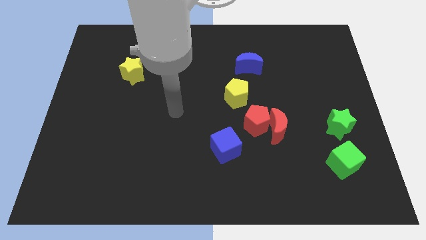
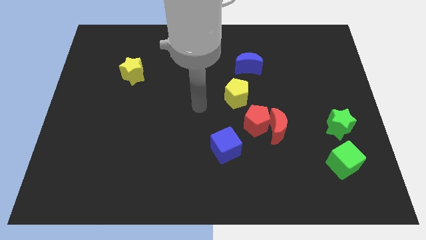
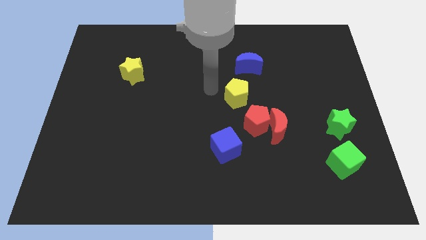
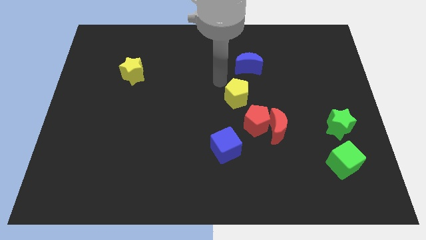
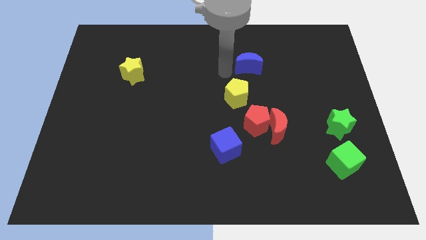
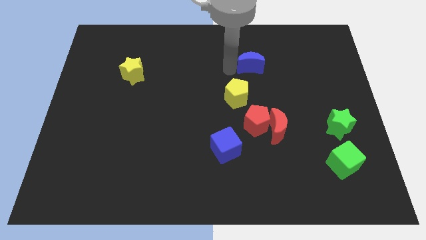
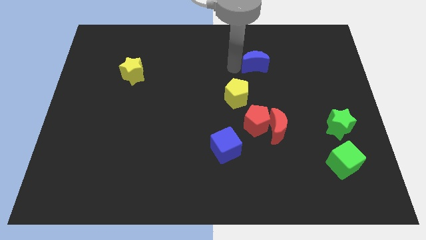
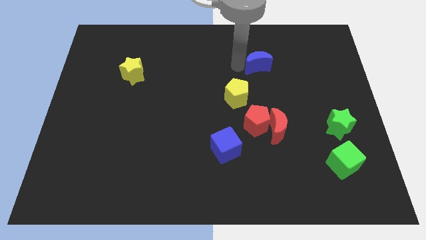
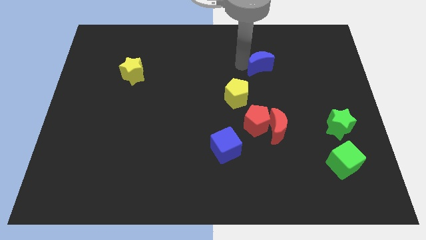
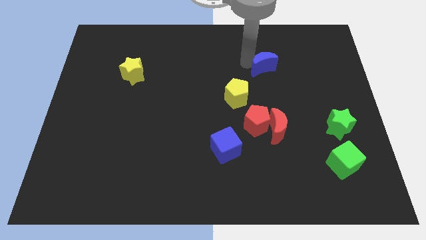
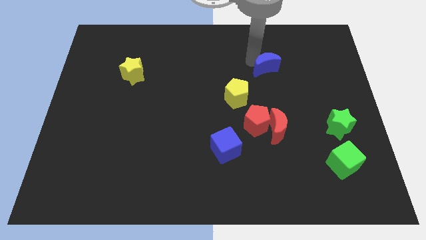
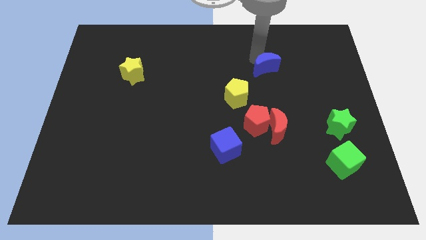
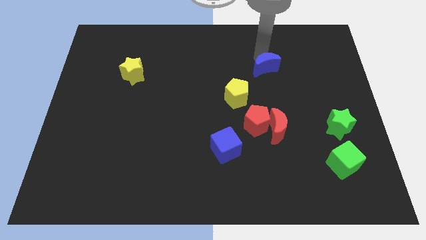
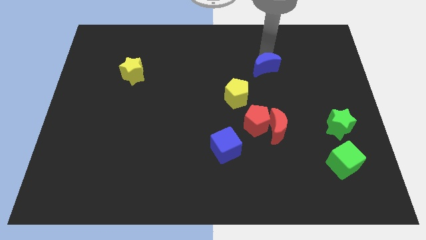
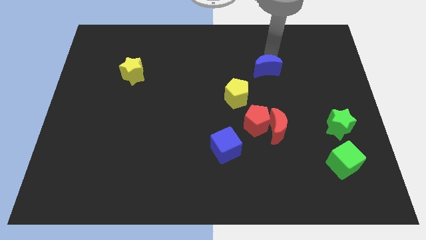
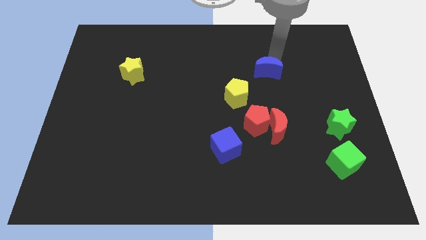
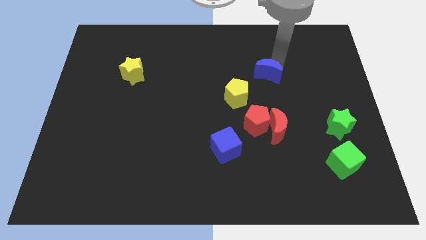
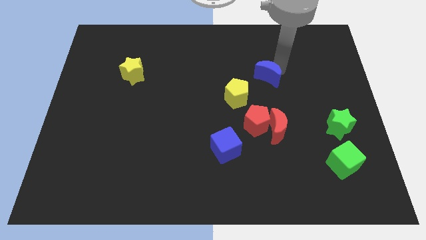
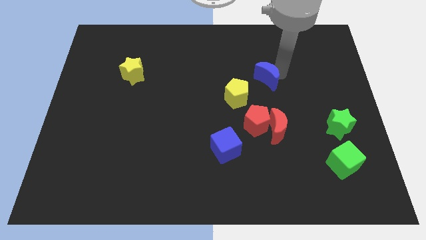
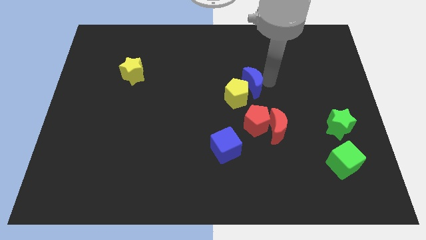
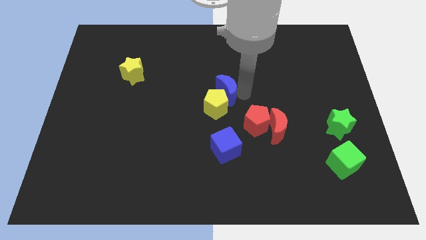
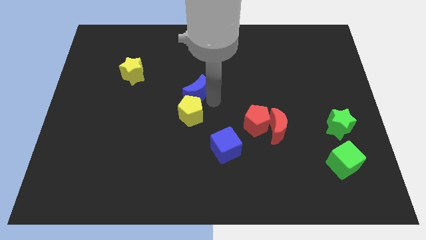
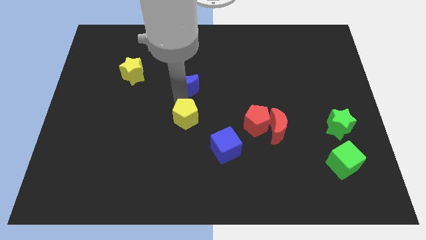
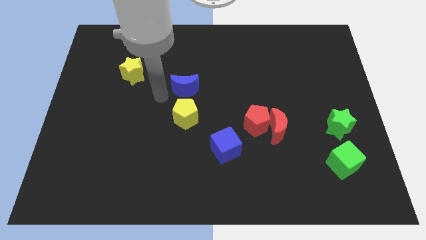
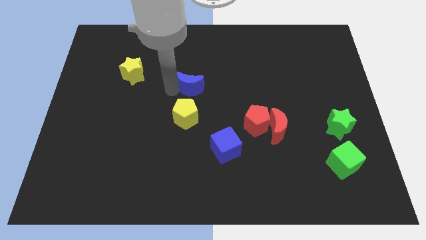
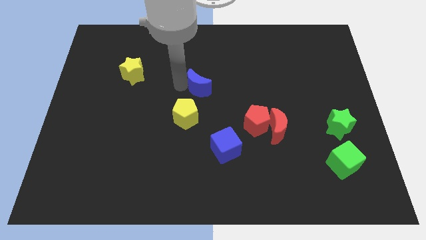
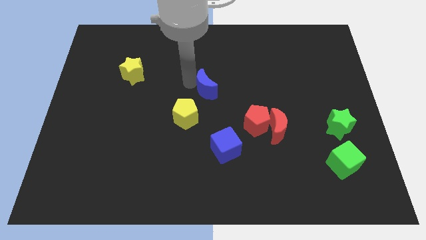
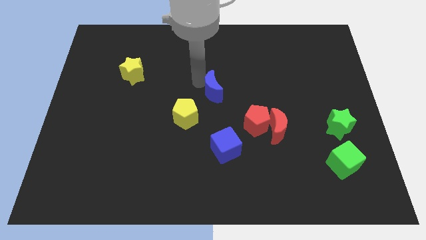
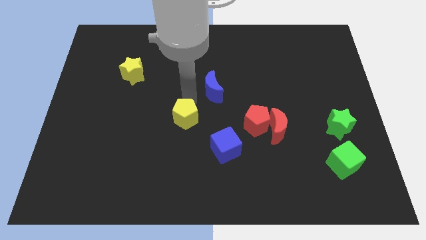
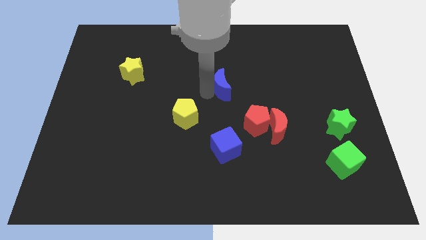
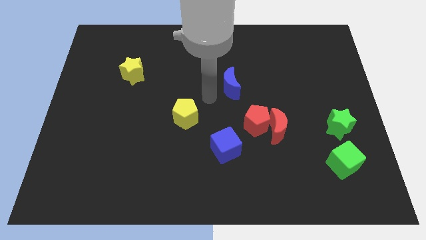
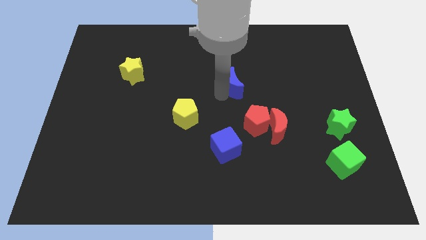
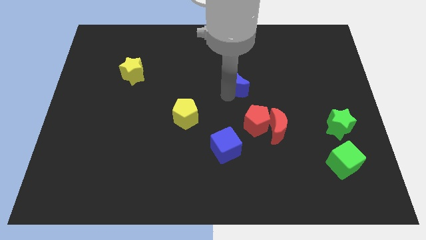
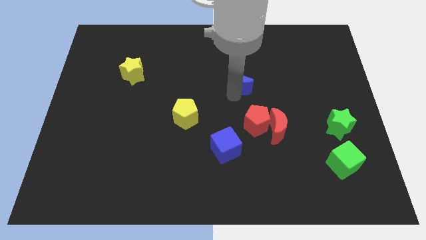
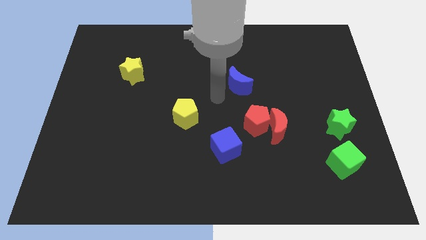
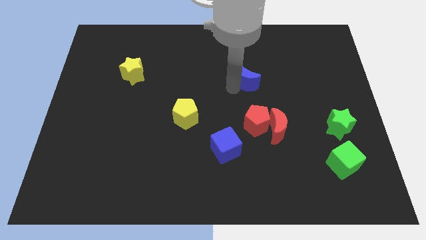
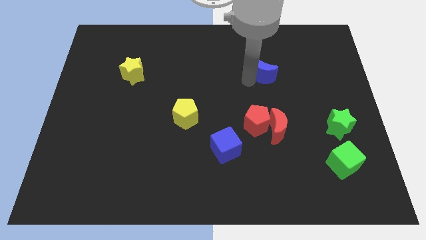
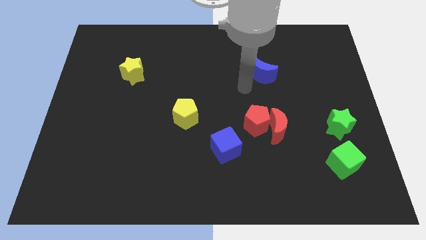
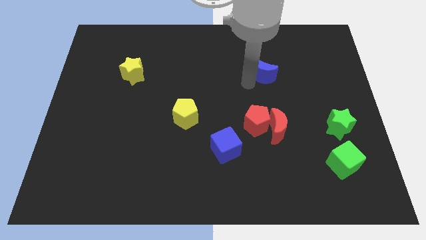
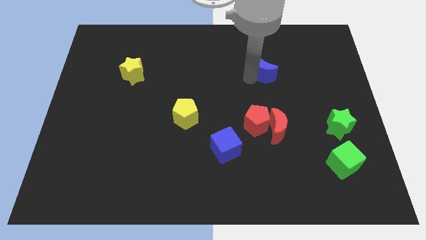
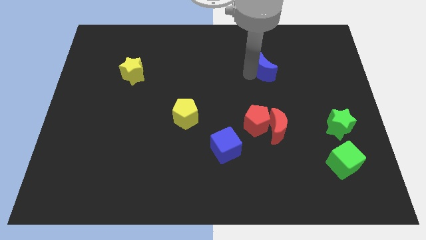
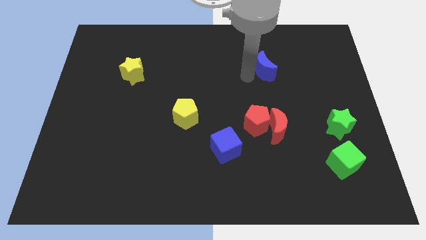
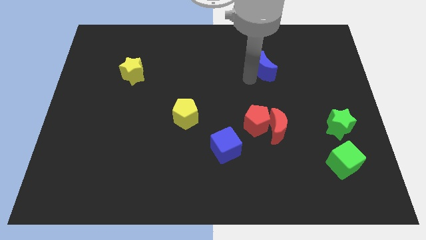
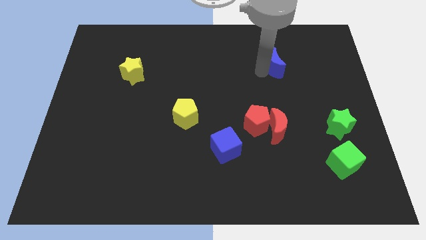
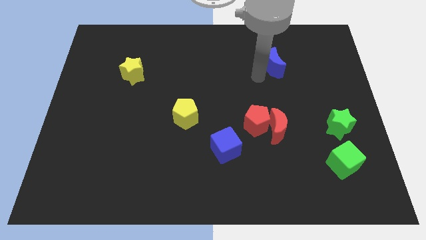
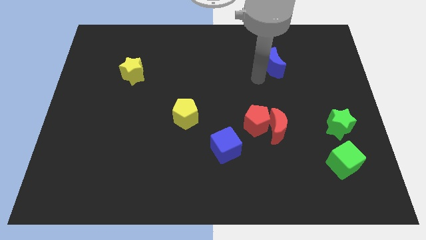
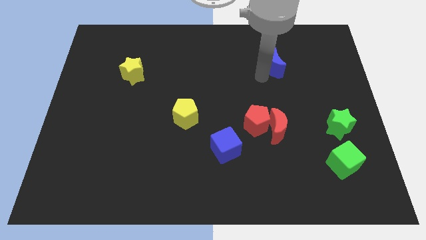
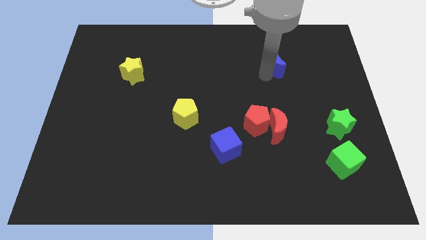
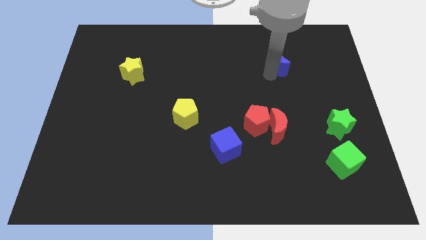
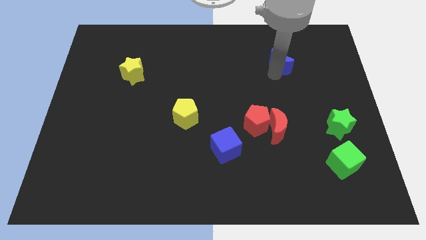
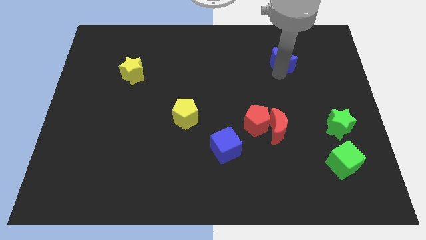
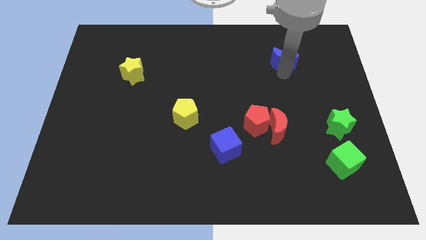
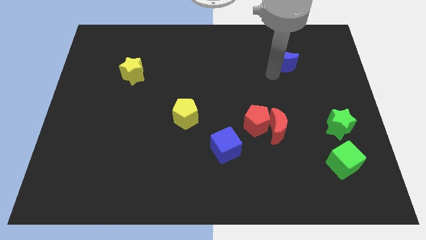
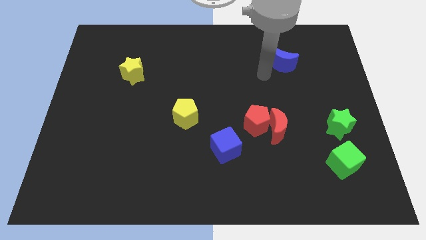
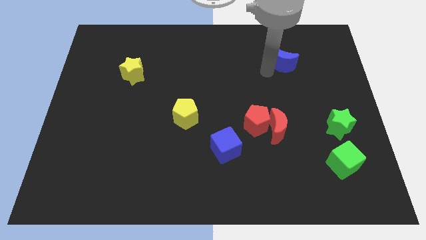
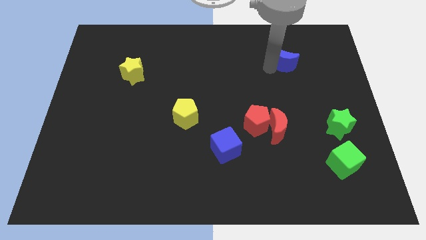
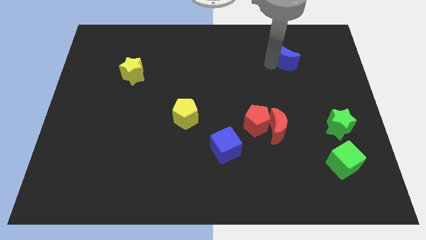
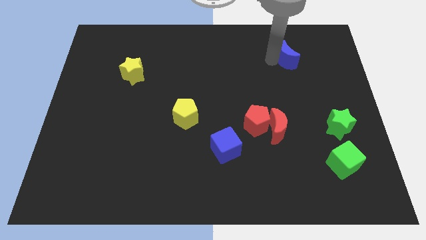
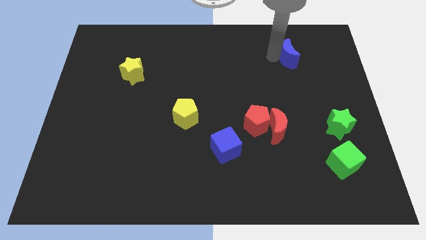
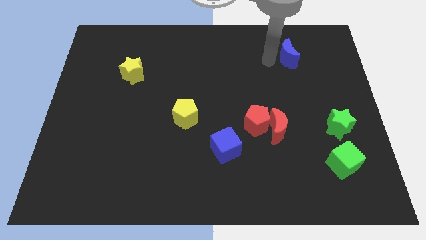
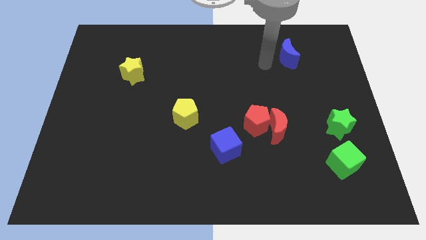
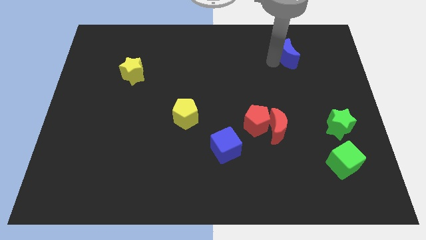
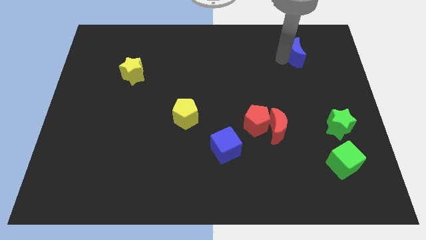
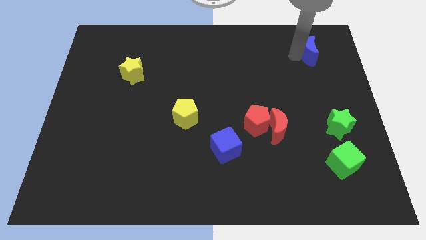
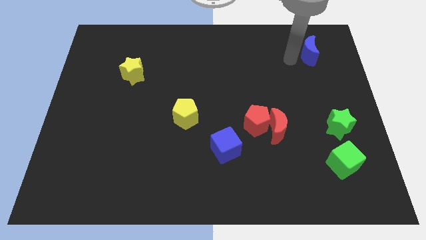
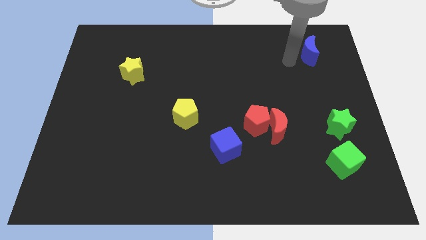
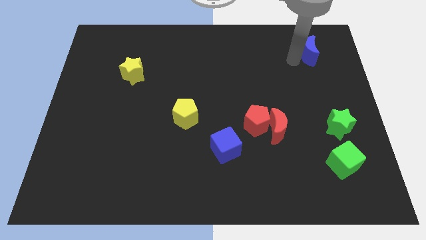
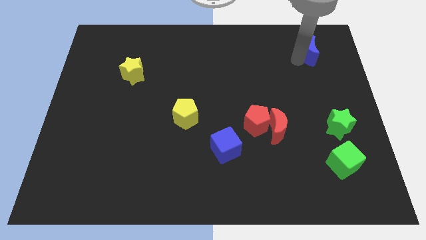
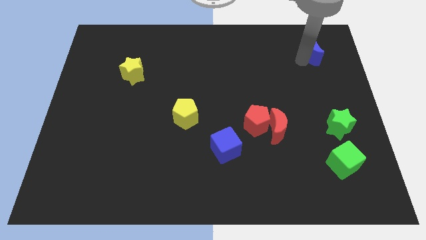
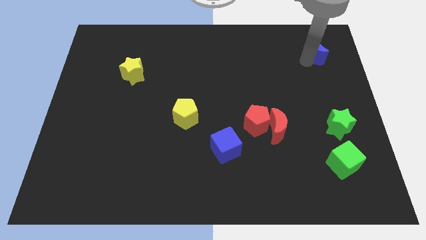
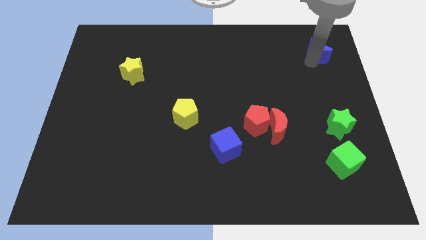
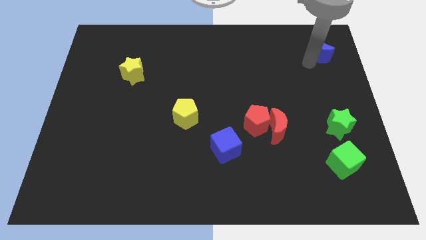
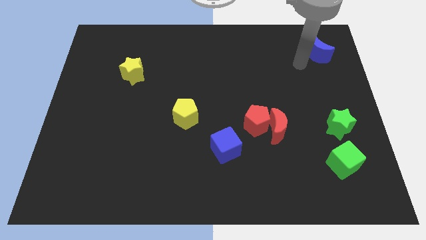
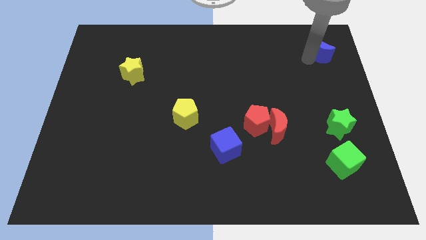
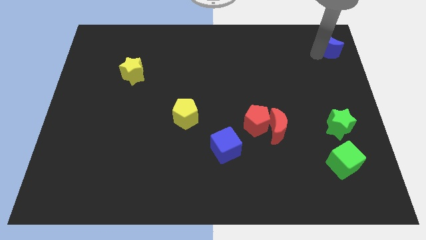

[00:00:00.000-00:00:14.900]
put the blue moon to the top right corner
